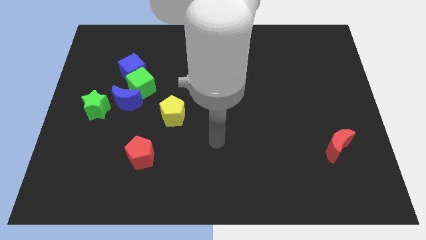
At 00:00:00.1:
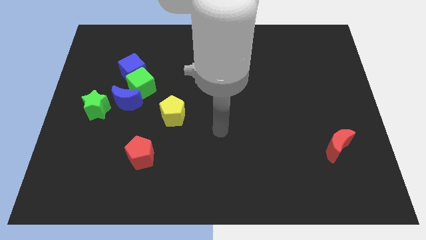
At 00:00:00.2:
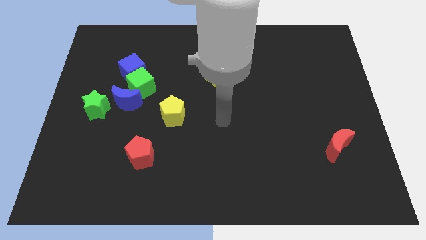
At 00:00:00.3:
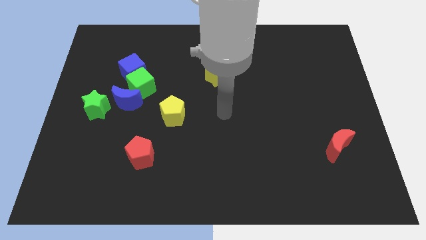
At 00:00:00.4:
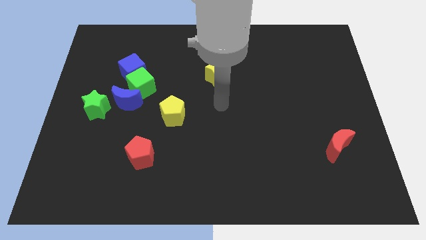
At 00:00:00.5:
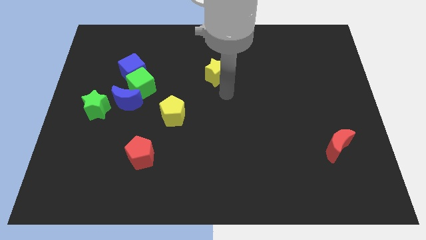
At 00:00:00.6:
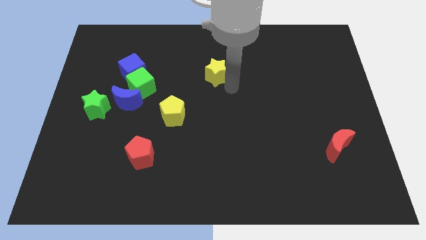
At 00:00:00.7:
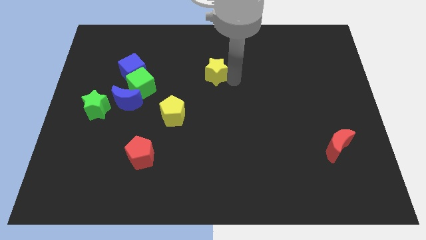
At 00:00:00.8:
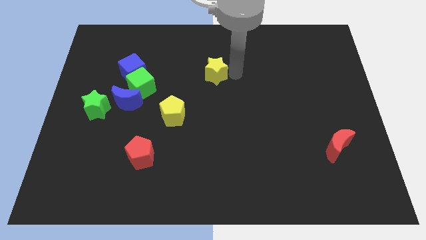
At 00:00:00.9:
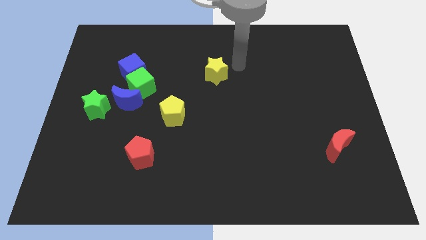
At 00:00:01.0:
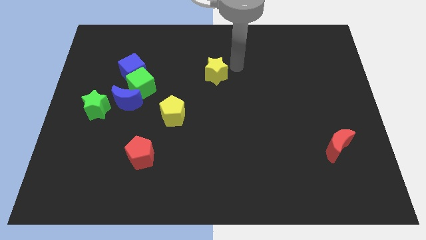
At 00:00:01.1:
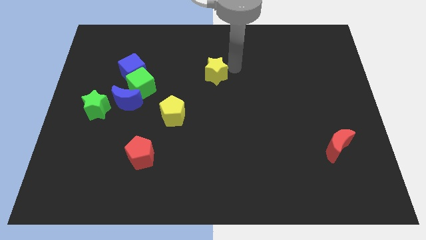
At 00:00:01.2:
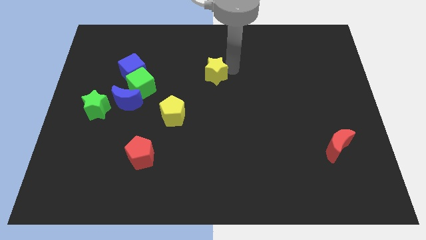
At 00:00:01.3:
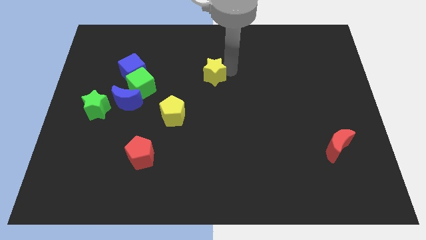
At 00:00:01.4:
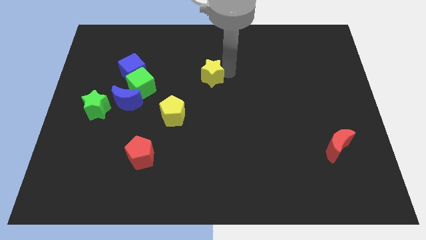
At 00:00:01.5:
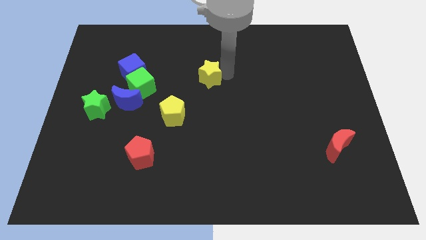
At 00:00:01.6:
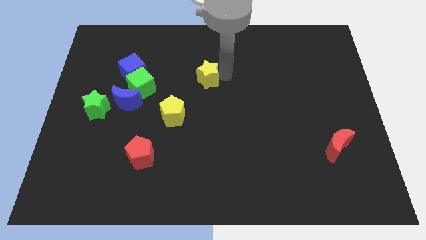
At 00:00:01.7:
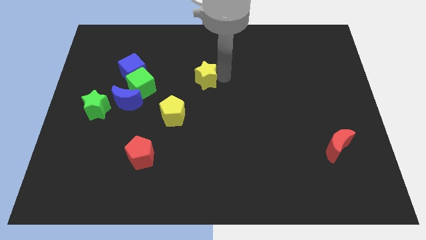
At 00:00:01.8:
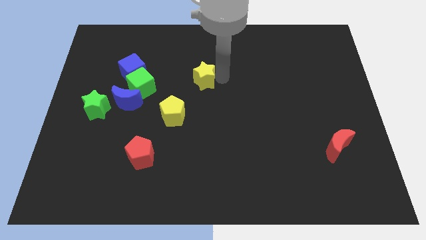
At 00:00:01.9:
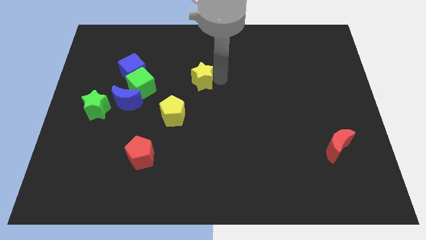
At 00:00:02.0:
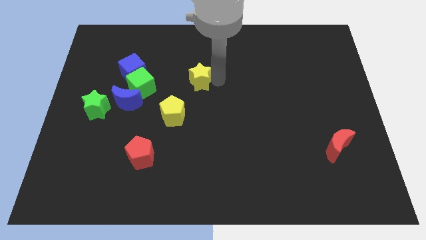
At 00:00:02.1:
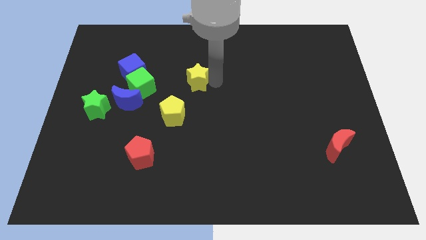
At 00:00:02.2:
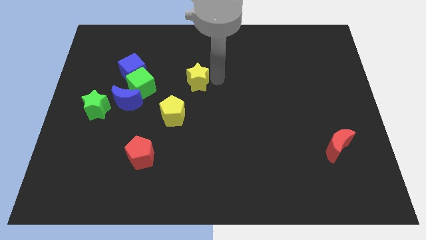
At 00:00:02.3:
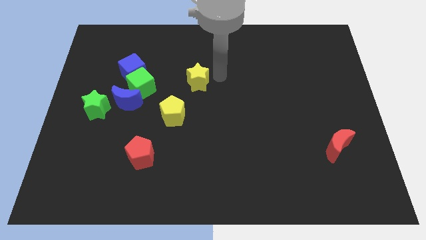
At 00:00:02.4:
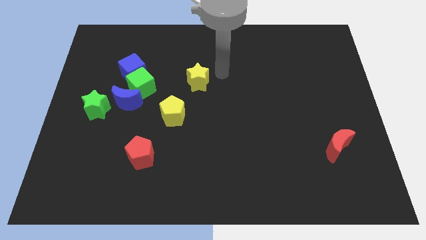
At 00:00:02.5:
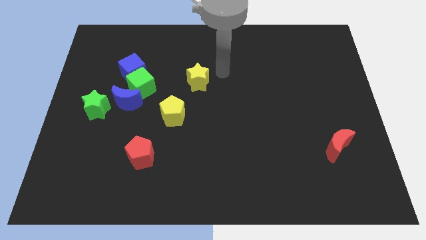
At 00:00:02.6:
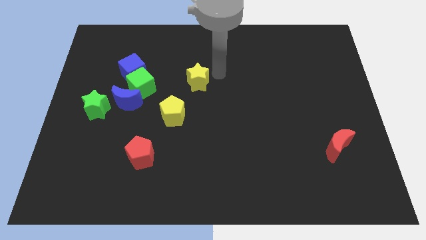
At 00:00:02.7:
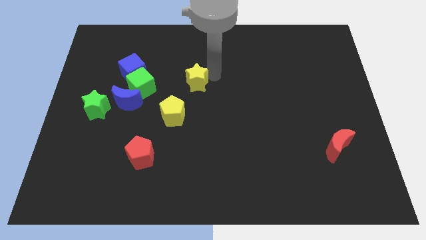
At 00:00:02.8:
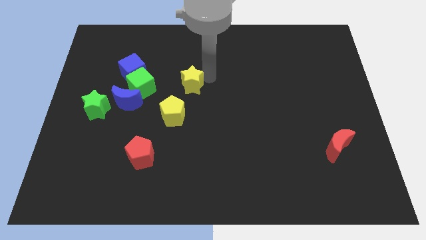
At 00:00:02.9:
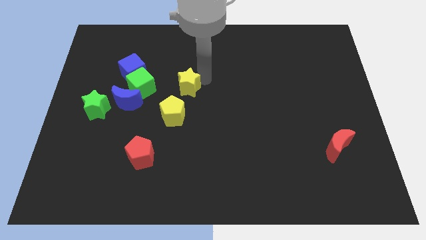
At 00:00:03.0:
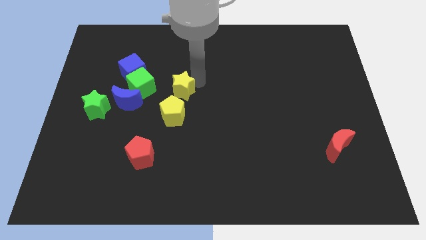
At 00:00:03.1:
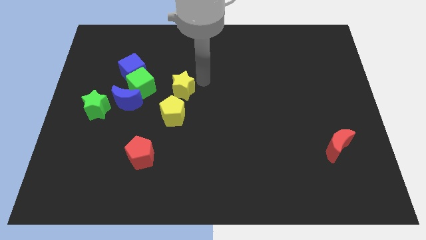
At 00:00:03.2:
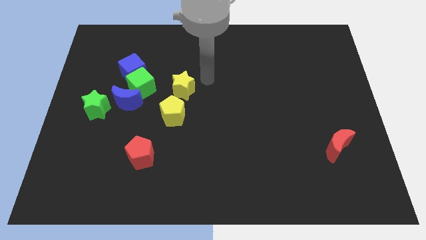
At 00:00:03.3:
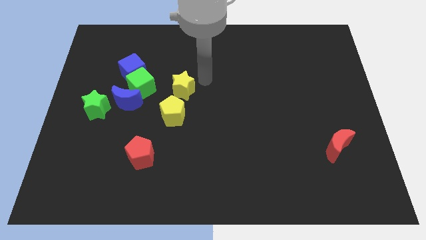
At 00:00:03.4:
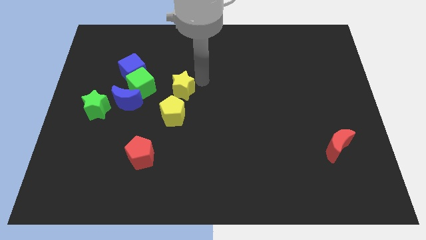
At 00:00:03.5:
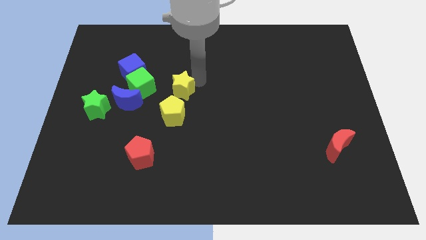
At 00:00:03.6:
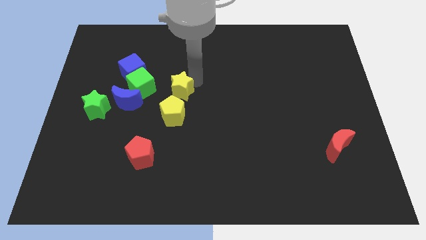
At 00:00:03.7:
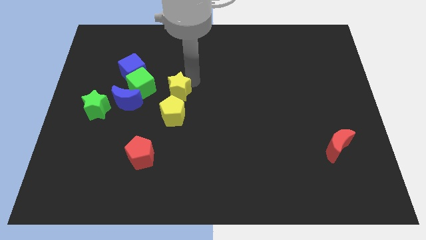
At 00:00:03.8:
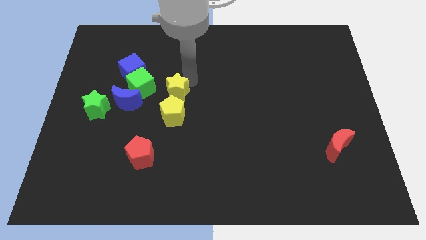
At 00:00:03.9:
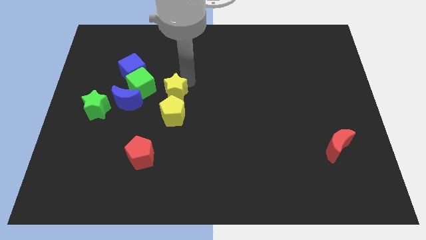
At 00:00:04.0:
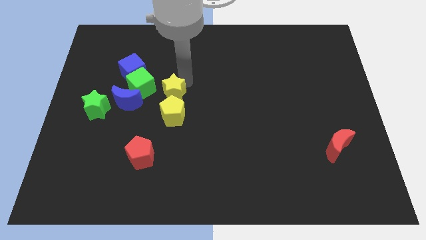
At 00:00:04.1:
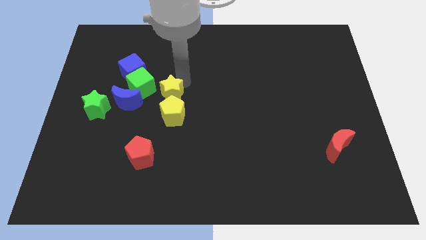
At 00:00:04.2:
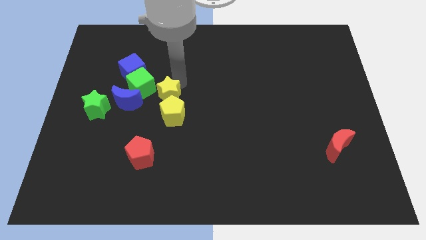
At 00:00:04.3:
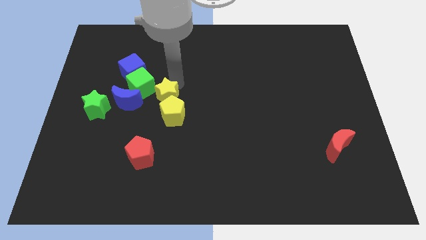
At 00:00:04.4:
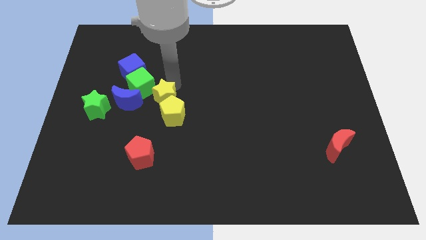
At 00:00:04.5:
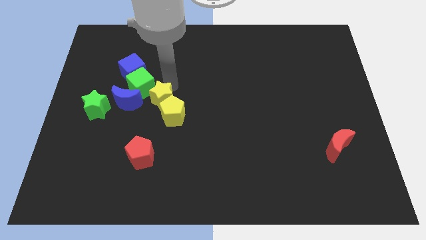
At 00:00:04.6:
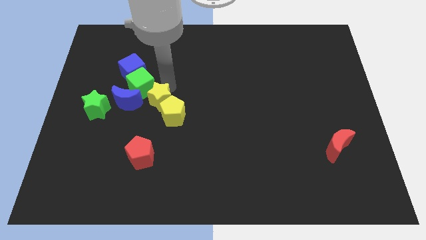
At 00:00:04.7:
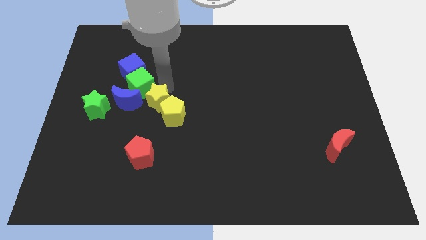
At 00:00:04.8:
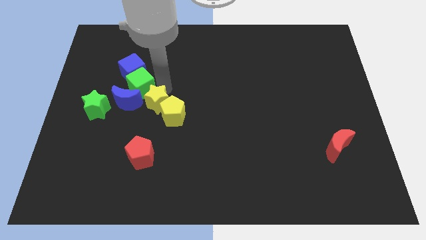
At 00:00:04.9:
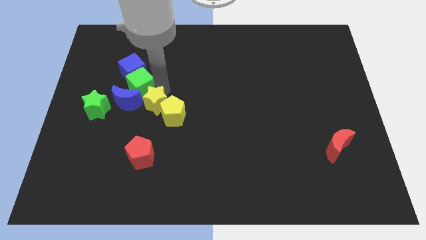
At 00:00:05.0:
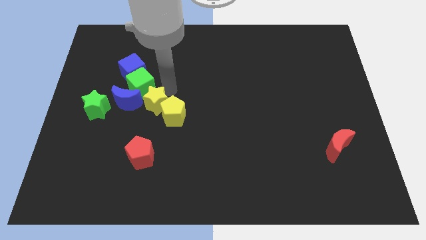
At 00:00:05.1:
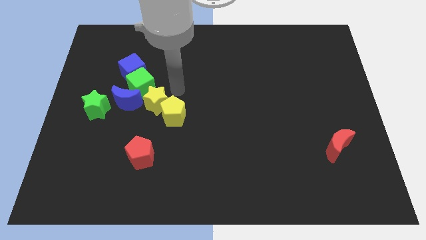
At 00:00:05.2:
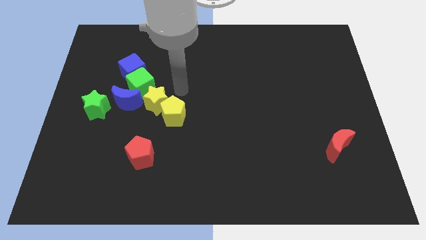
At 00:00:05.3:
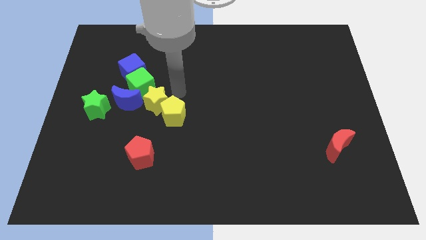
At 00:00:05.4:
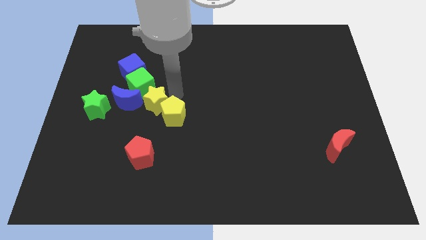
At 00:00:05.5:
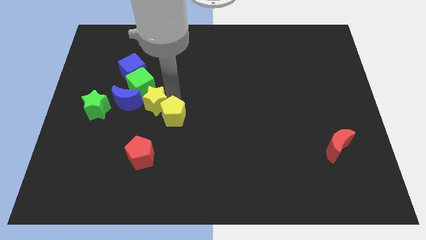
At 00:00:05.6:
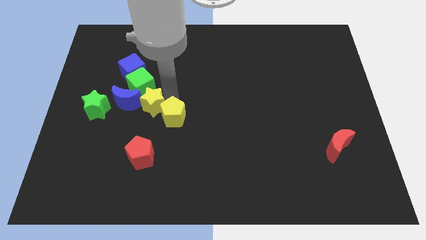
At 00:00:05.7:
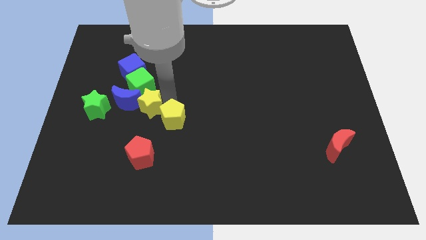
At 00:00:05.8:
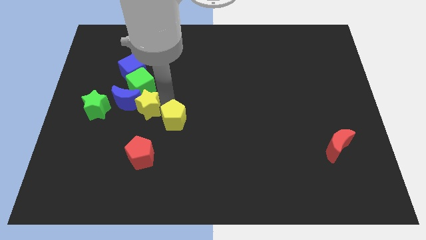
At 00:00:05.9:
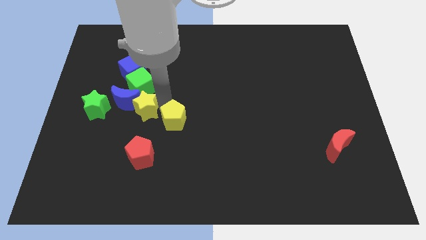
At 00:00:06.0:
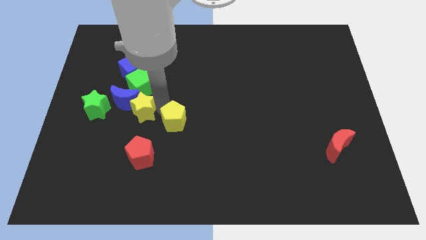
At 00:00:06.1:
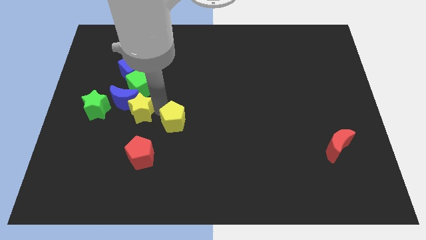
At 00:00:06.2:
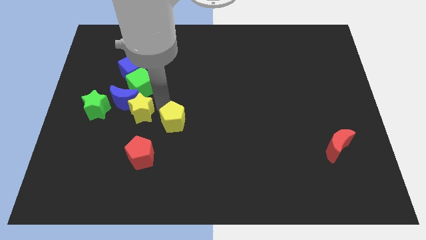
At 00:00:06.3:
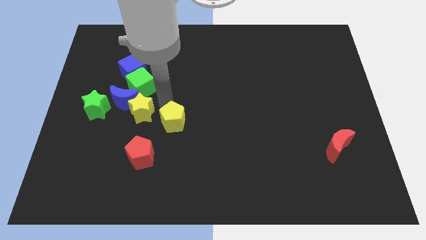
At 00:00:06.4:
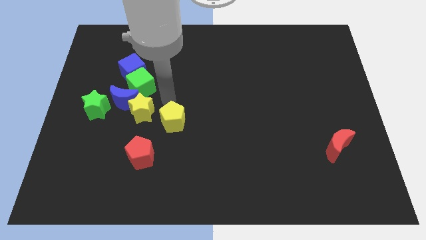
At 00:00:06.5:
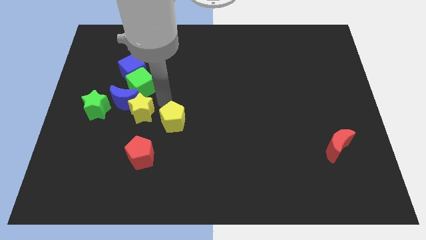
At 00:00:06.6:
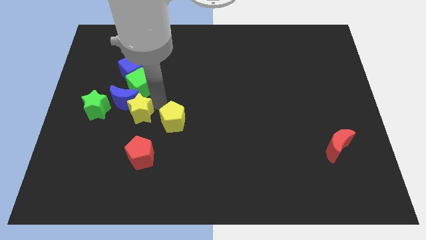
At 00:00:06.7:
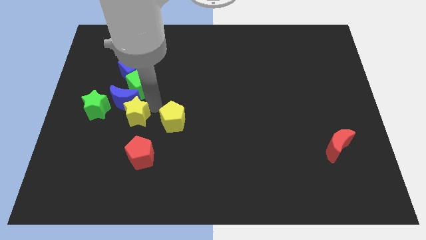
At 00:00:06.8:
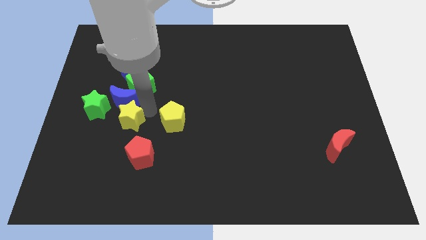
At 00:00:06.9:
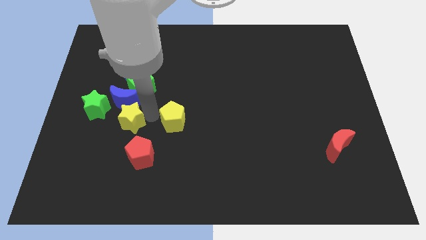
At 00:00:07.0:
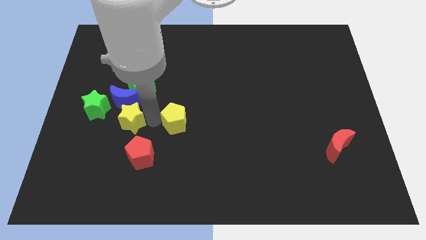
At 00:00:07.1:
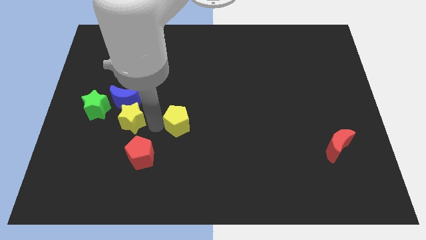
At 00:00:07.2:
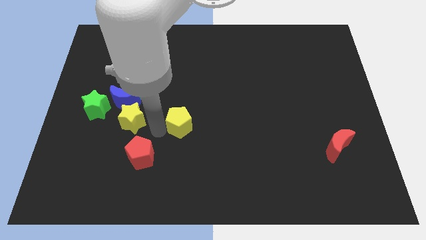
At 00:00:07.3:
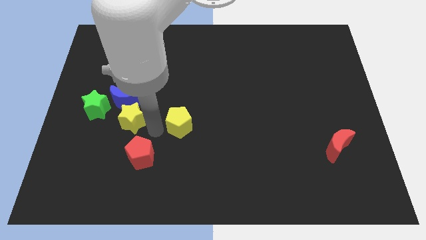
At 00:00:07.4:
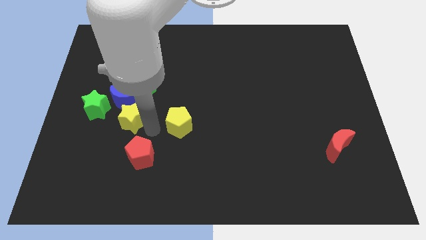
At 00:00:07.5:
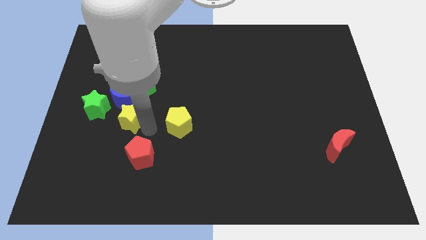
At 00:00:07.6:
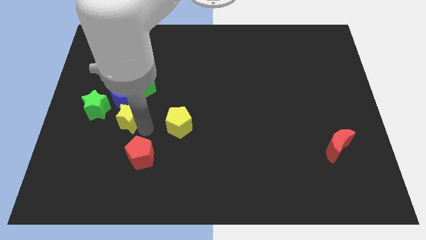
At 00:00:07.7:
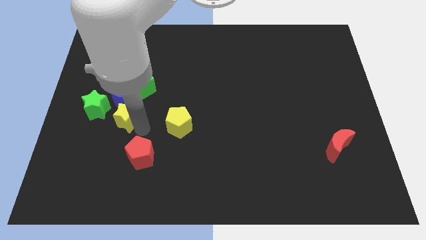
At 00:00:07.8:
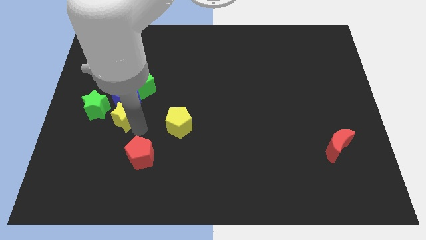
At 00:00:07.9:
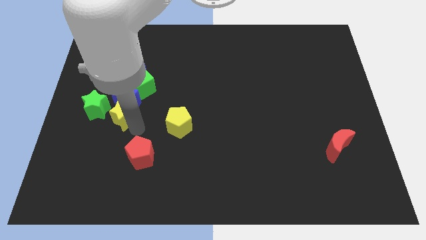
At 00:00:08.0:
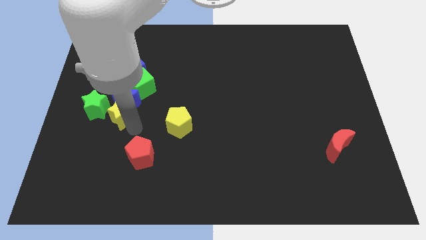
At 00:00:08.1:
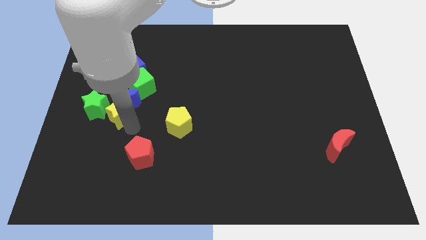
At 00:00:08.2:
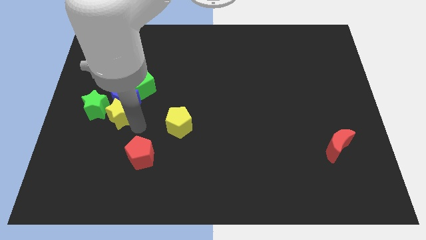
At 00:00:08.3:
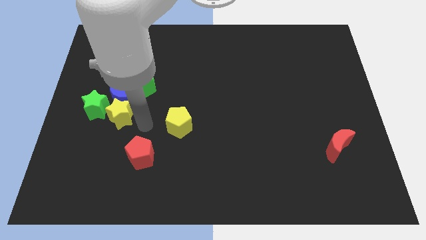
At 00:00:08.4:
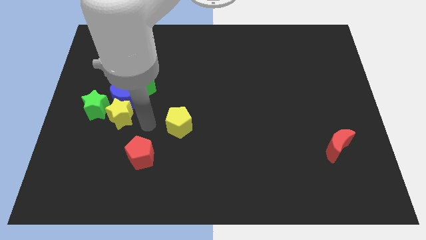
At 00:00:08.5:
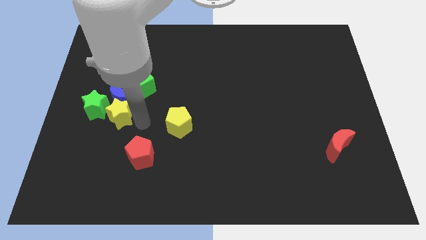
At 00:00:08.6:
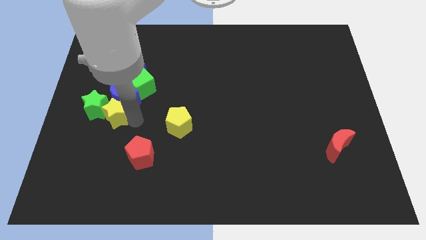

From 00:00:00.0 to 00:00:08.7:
slide the yellow star close to the green star
